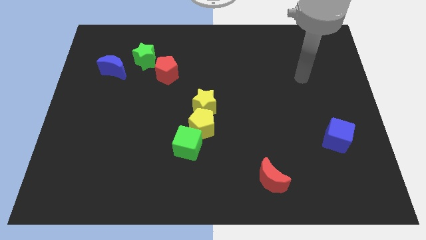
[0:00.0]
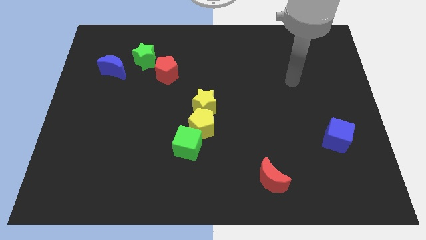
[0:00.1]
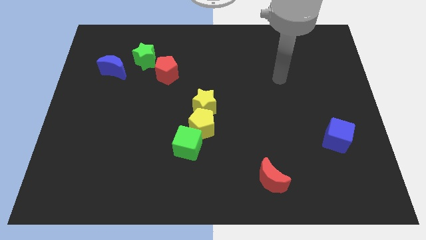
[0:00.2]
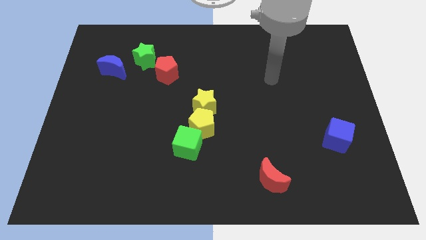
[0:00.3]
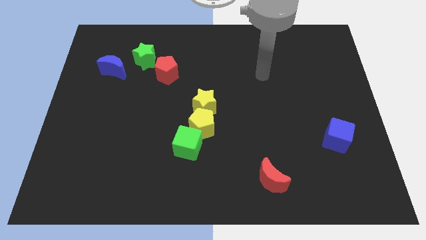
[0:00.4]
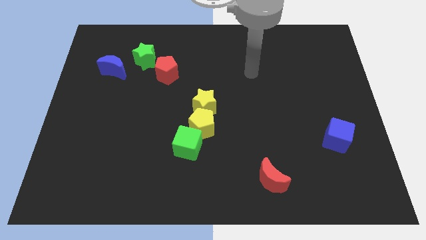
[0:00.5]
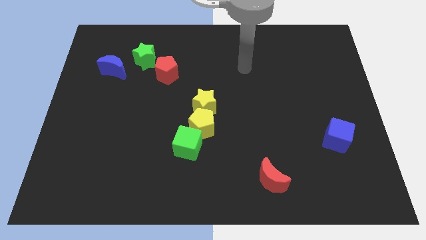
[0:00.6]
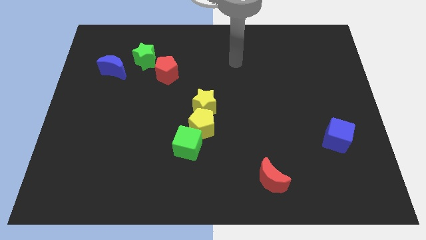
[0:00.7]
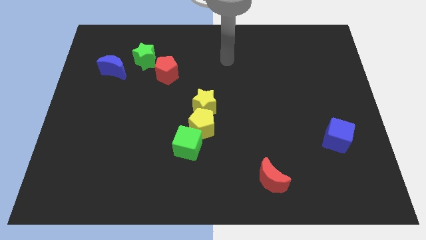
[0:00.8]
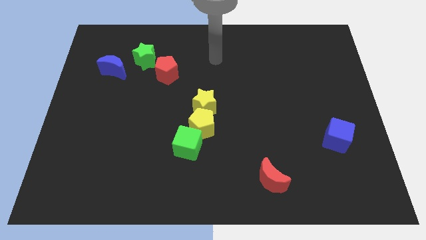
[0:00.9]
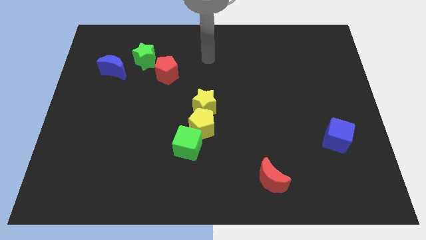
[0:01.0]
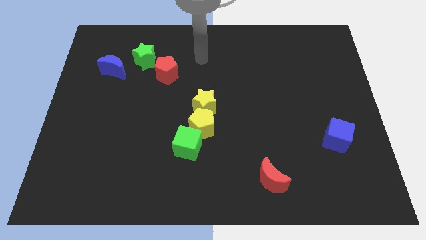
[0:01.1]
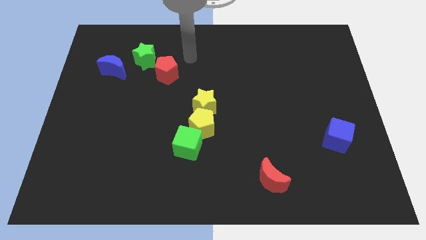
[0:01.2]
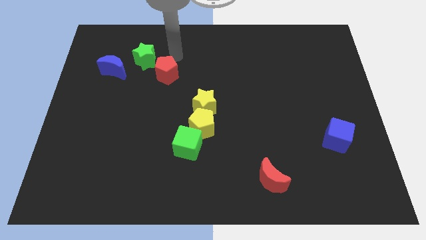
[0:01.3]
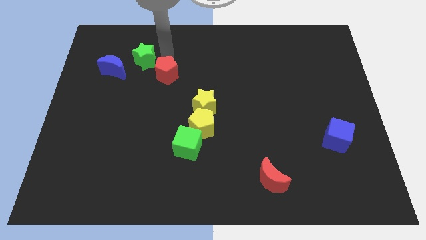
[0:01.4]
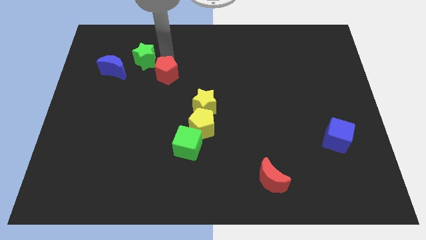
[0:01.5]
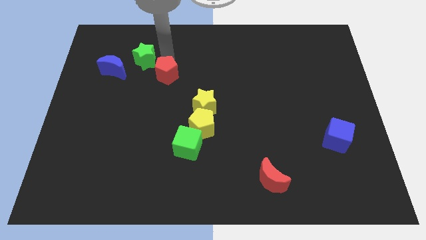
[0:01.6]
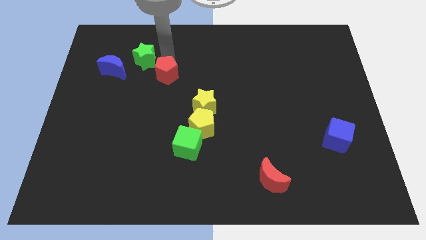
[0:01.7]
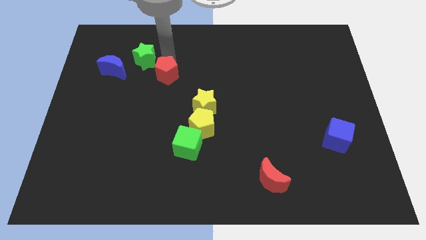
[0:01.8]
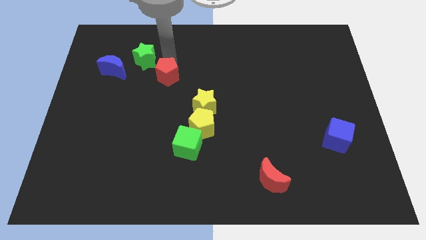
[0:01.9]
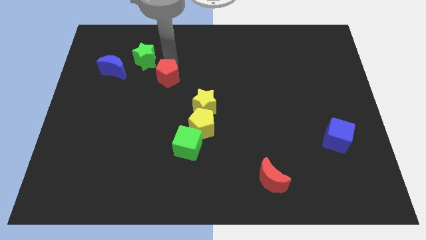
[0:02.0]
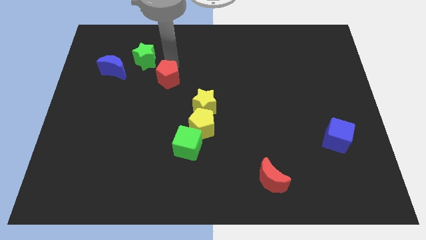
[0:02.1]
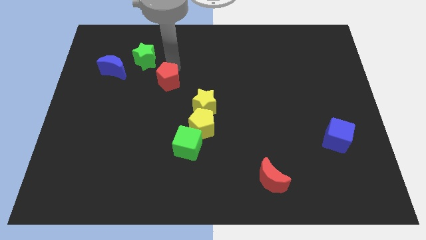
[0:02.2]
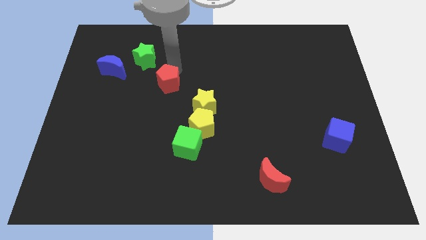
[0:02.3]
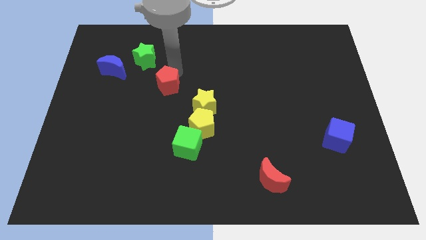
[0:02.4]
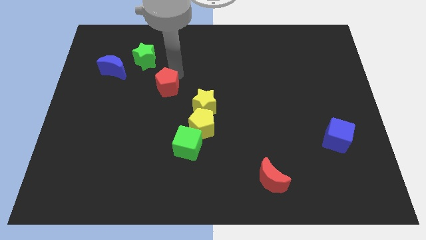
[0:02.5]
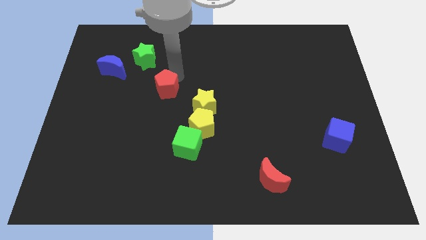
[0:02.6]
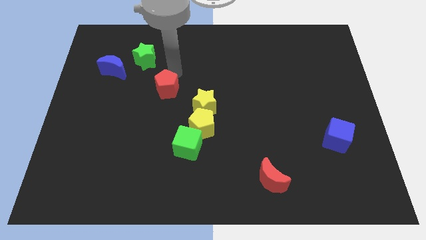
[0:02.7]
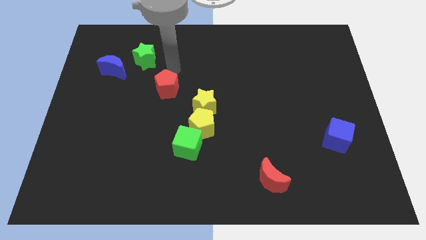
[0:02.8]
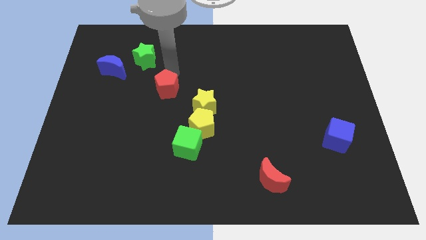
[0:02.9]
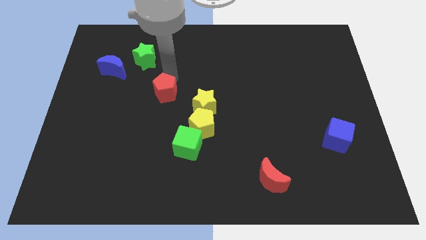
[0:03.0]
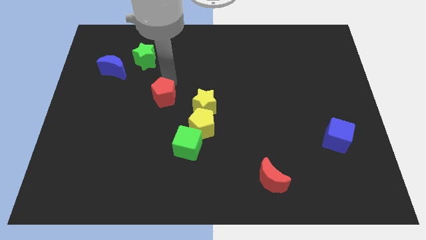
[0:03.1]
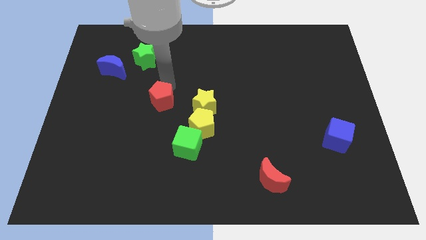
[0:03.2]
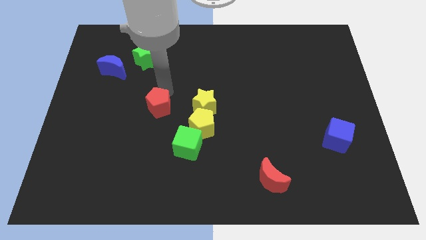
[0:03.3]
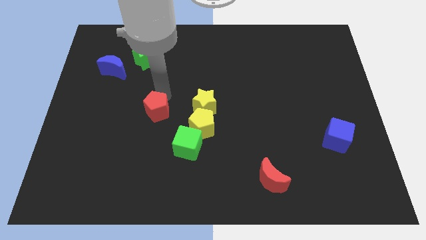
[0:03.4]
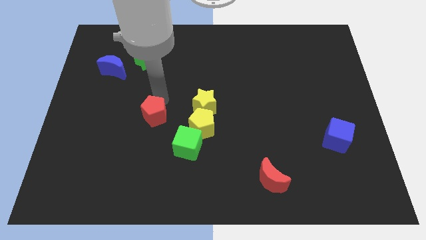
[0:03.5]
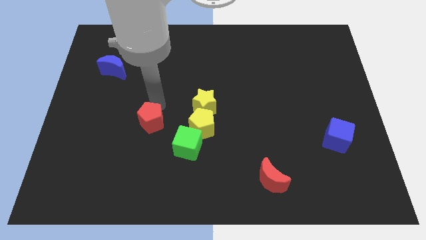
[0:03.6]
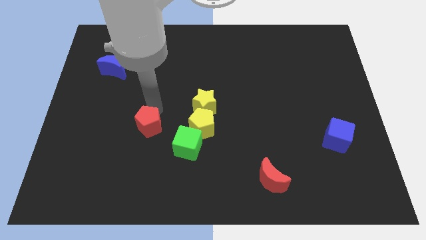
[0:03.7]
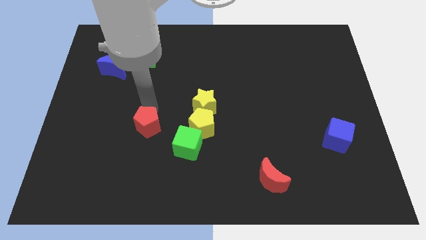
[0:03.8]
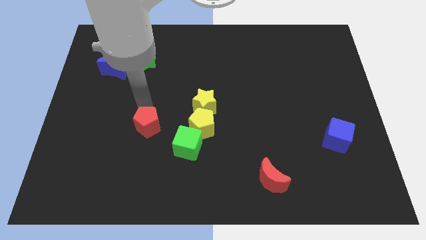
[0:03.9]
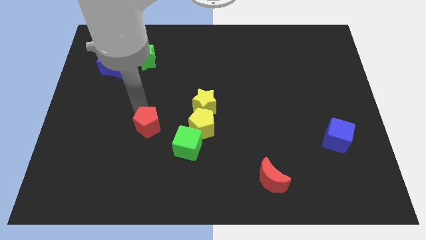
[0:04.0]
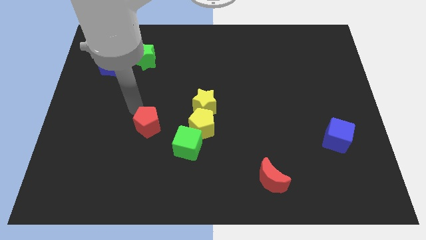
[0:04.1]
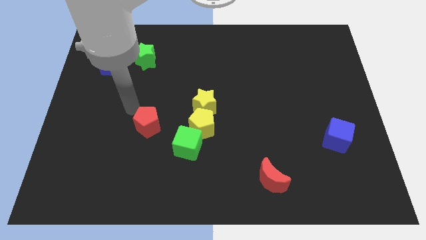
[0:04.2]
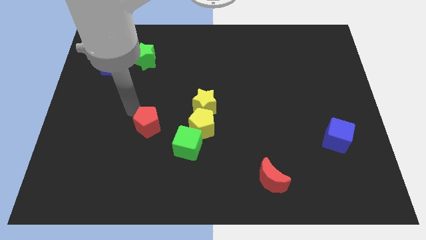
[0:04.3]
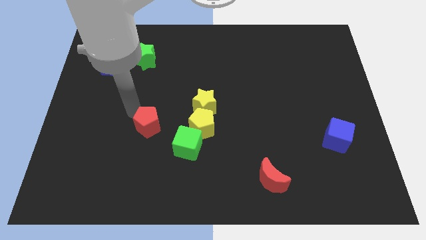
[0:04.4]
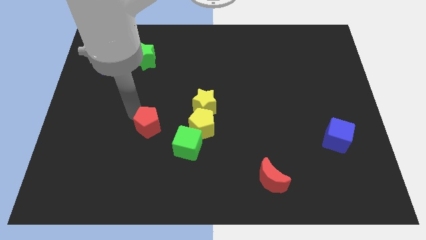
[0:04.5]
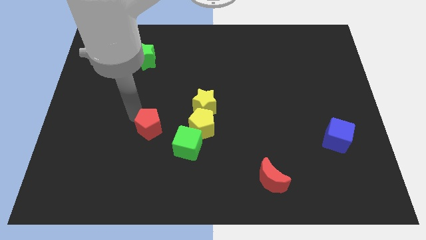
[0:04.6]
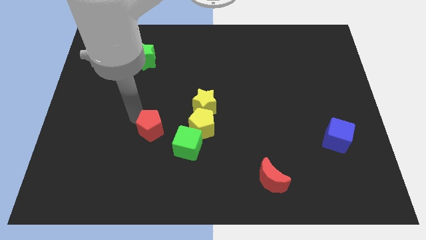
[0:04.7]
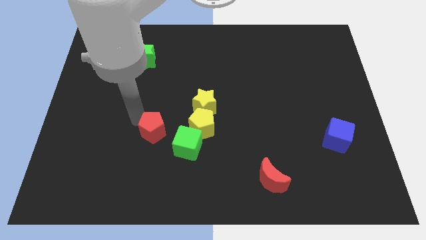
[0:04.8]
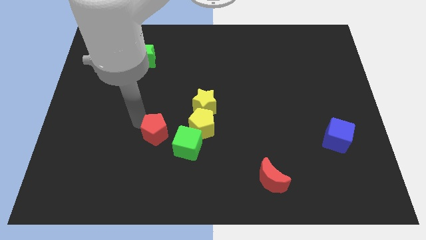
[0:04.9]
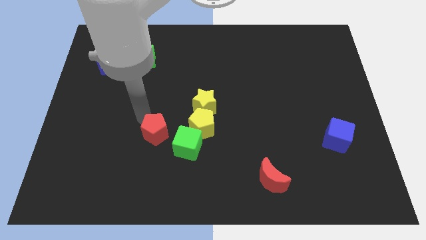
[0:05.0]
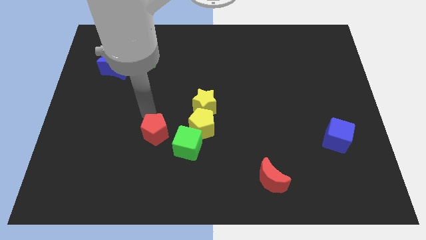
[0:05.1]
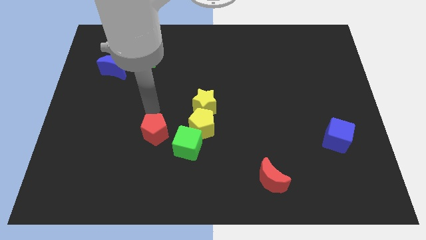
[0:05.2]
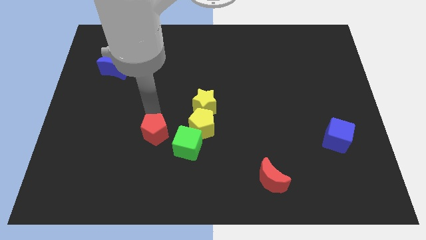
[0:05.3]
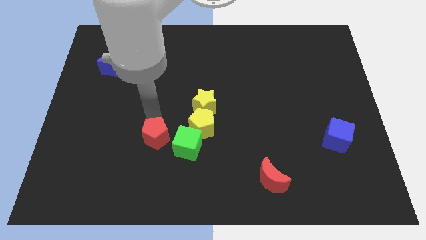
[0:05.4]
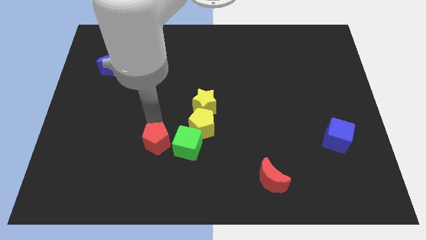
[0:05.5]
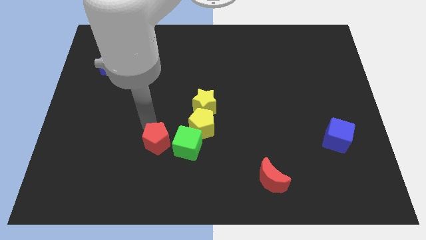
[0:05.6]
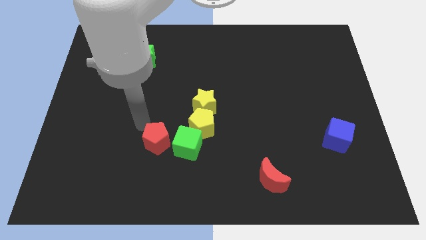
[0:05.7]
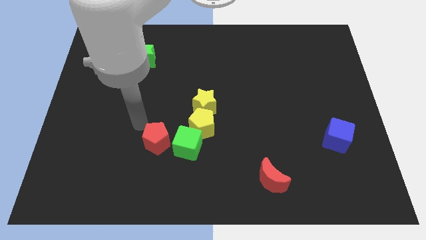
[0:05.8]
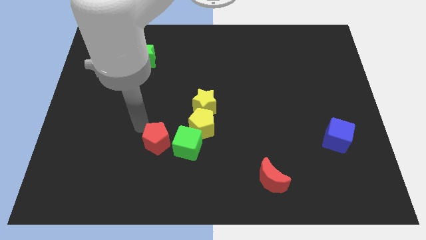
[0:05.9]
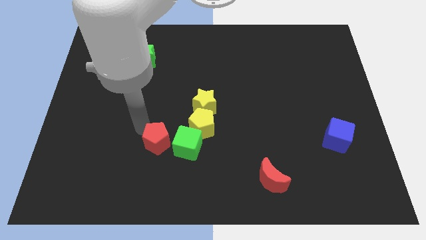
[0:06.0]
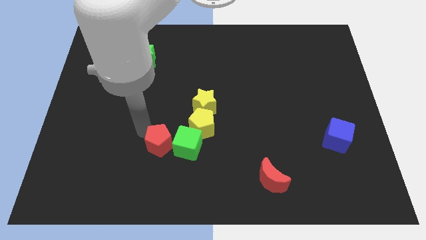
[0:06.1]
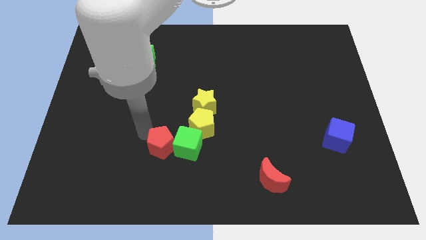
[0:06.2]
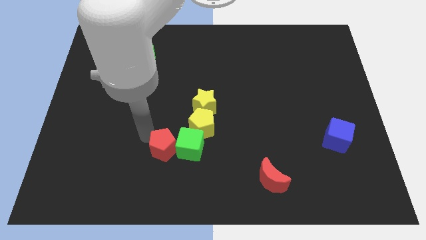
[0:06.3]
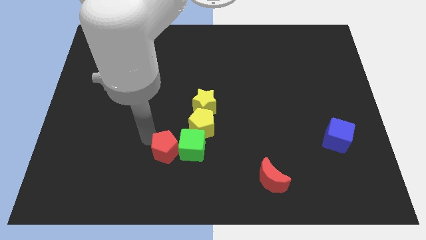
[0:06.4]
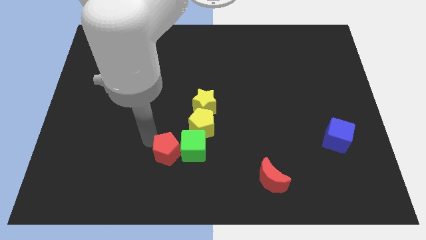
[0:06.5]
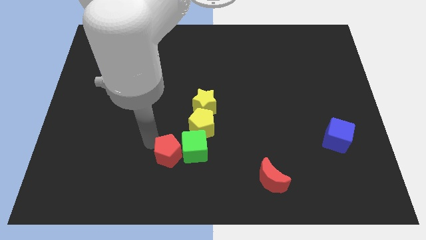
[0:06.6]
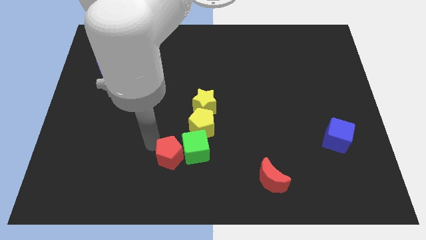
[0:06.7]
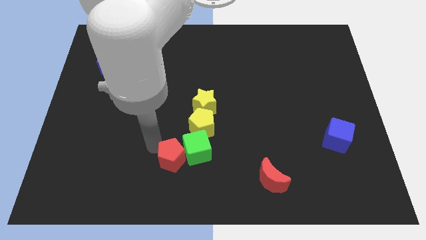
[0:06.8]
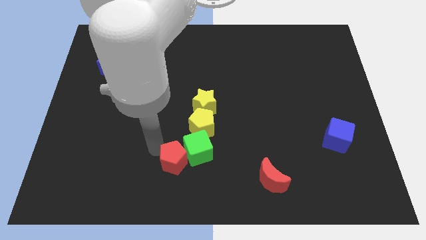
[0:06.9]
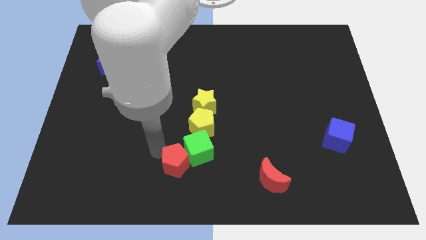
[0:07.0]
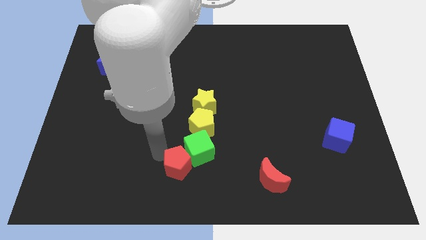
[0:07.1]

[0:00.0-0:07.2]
put the red pentagon to the bottom side of the yellow pentagon
